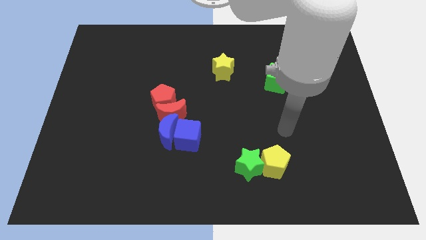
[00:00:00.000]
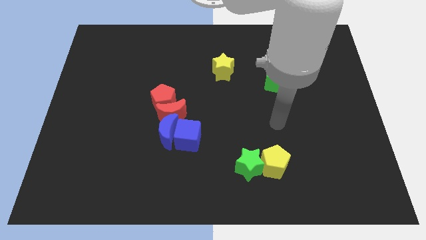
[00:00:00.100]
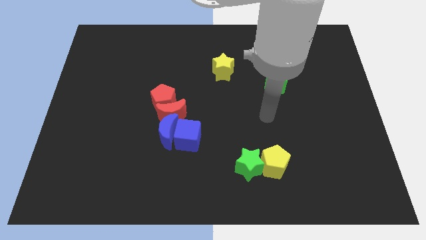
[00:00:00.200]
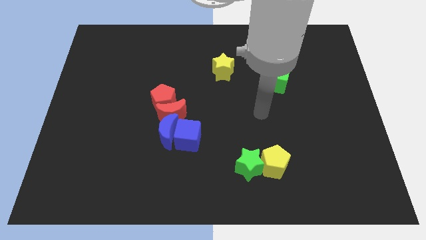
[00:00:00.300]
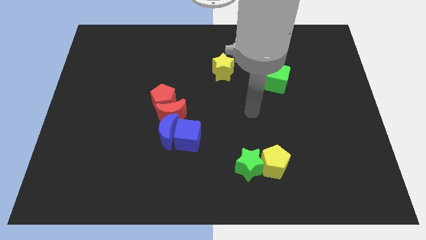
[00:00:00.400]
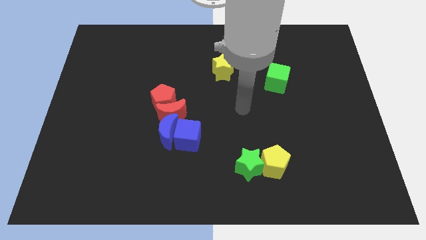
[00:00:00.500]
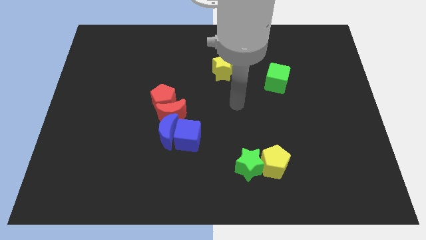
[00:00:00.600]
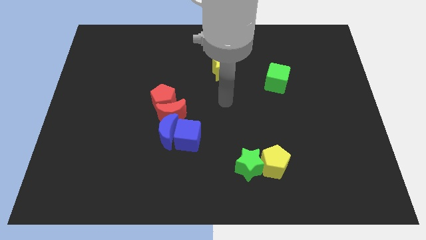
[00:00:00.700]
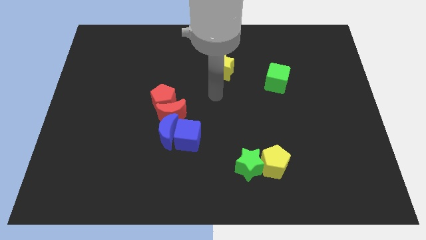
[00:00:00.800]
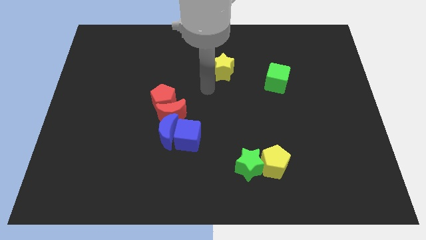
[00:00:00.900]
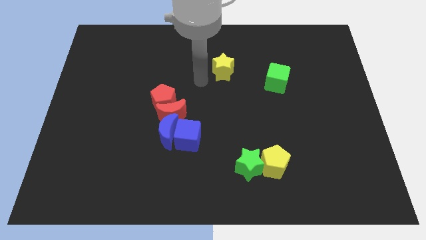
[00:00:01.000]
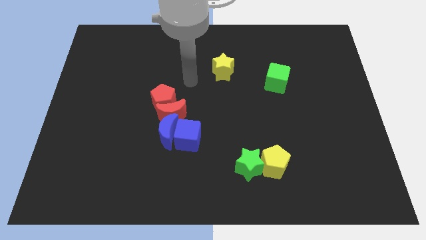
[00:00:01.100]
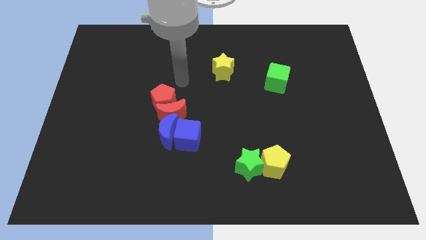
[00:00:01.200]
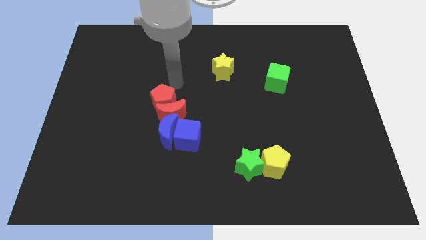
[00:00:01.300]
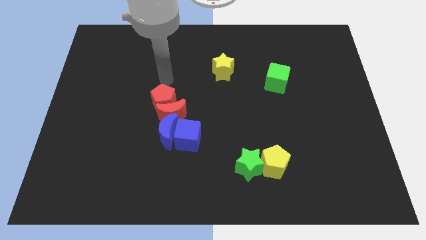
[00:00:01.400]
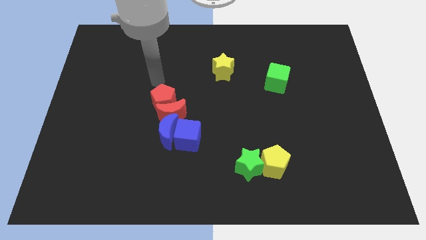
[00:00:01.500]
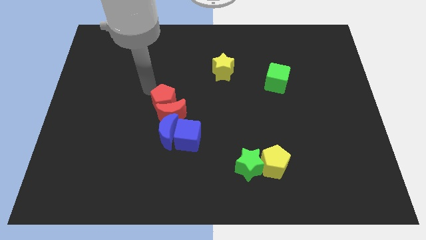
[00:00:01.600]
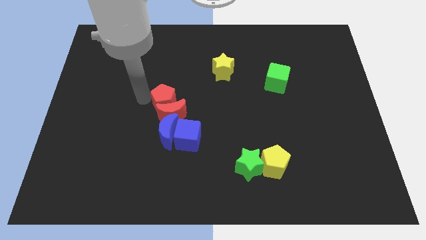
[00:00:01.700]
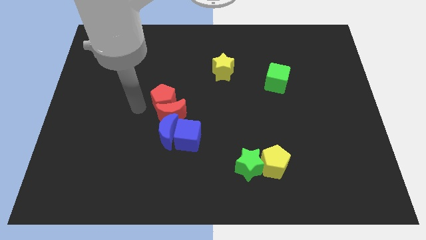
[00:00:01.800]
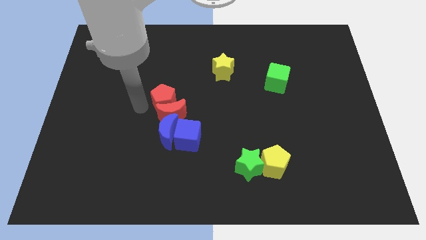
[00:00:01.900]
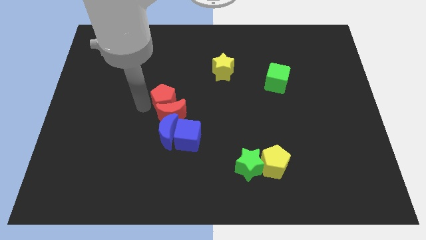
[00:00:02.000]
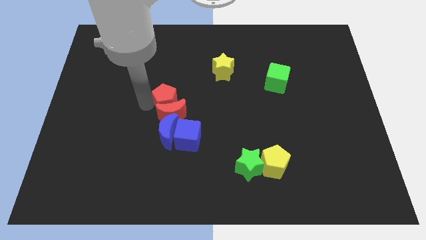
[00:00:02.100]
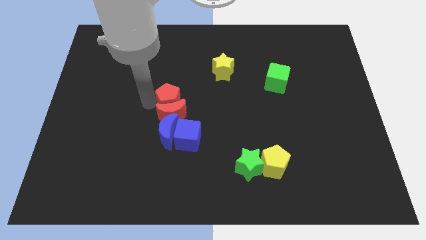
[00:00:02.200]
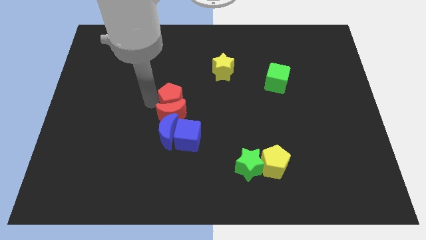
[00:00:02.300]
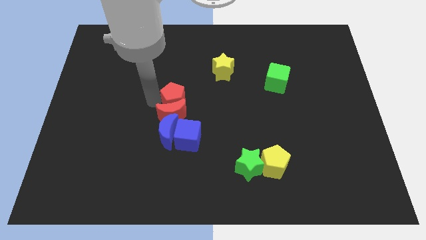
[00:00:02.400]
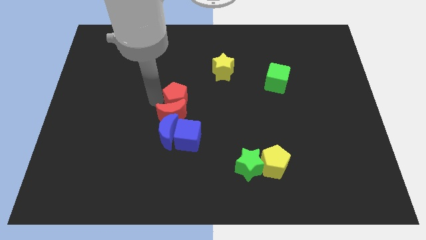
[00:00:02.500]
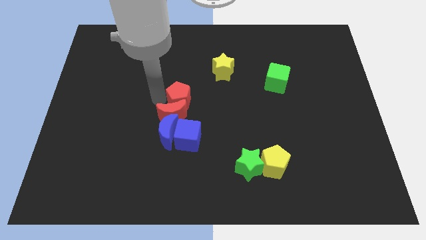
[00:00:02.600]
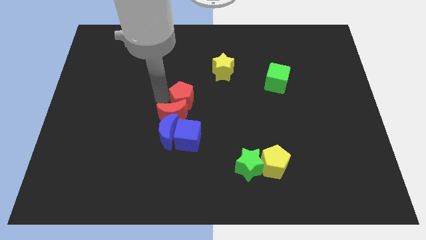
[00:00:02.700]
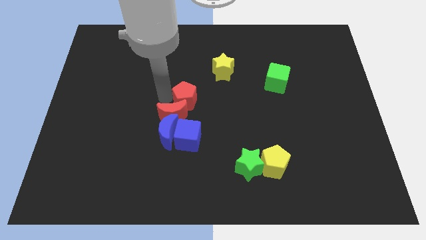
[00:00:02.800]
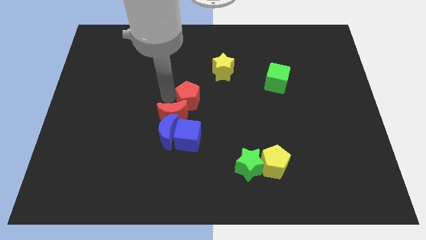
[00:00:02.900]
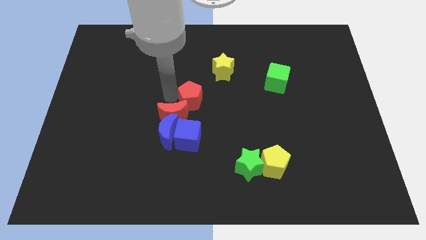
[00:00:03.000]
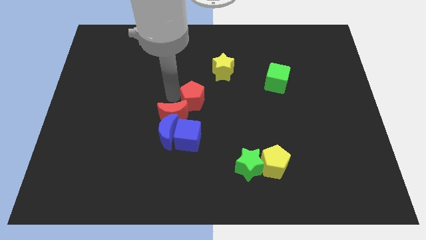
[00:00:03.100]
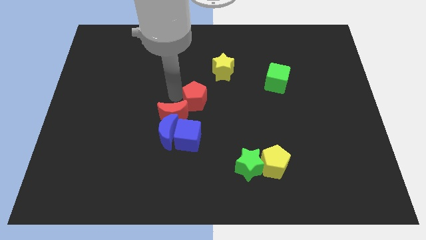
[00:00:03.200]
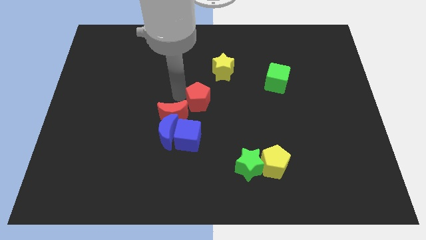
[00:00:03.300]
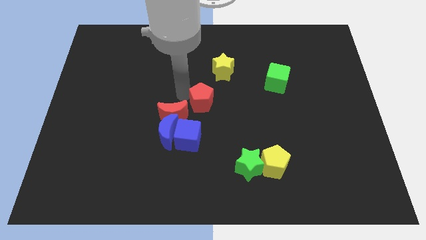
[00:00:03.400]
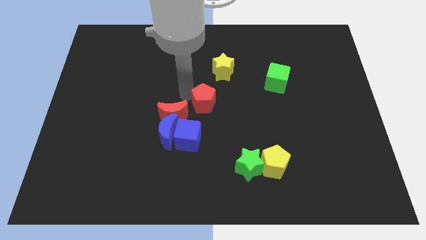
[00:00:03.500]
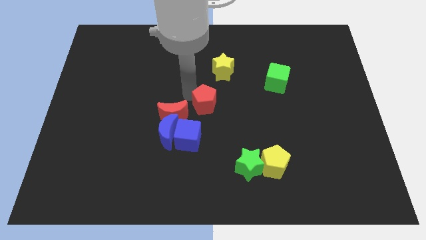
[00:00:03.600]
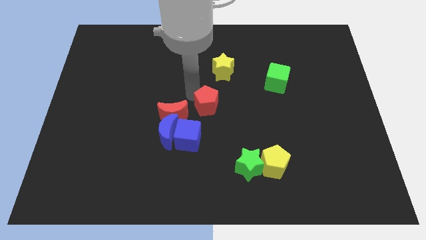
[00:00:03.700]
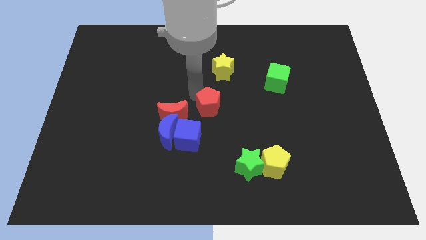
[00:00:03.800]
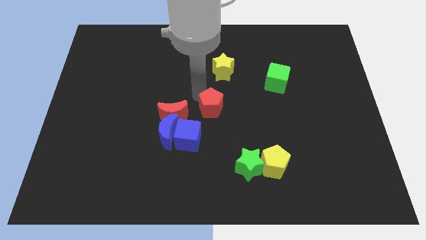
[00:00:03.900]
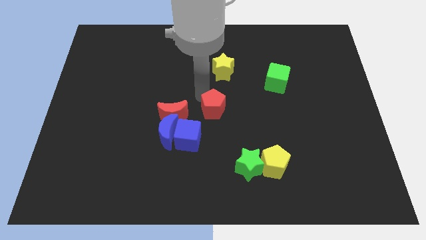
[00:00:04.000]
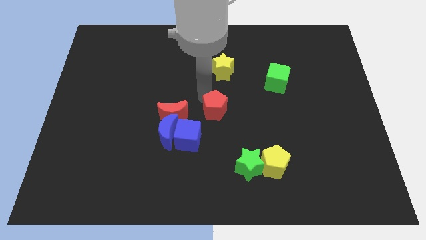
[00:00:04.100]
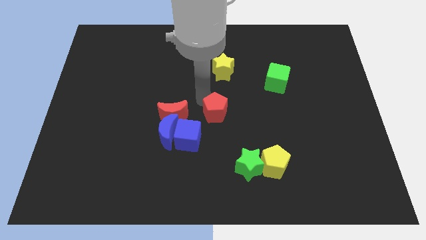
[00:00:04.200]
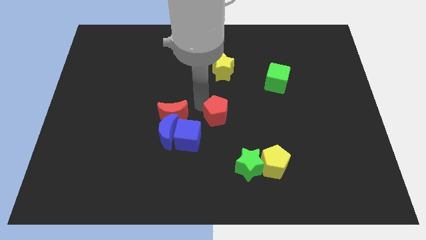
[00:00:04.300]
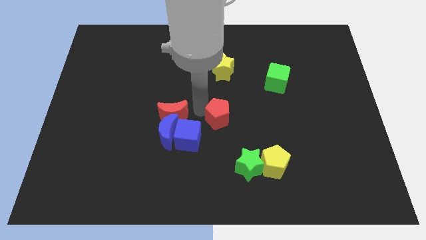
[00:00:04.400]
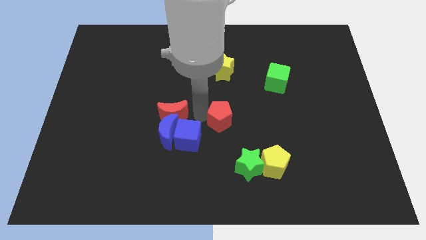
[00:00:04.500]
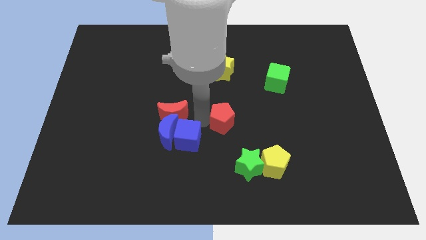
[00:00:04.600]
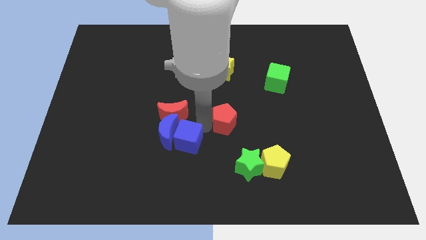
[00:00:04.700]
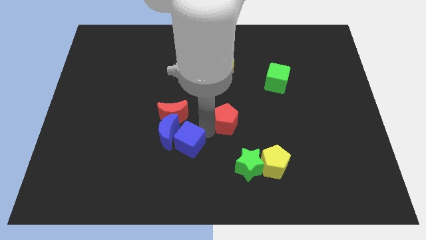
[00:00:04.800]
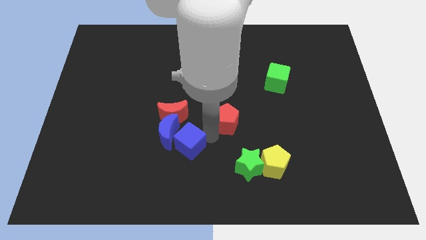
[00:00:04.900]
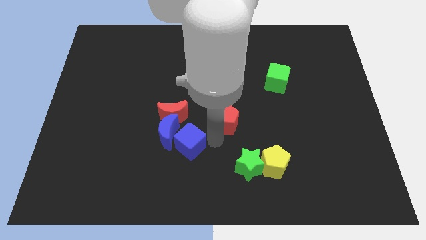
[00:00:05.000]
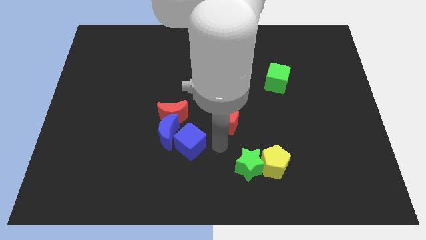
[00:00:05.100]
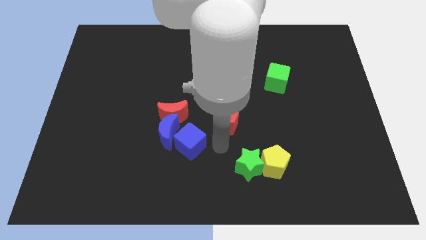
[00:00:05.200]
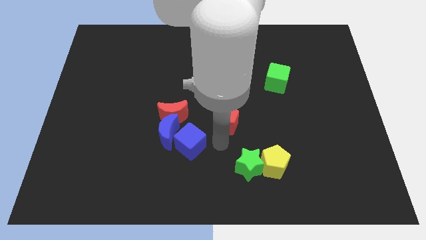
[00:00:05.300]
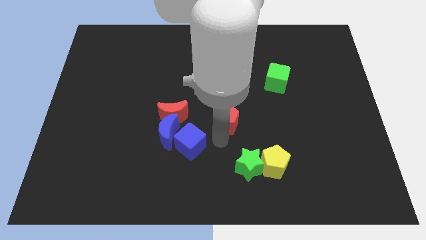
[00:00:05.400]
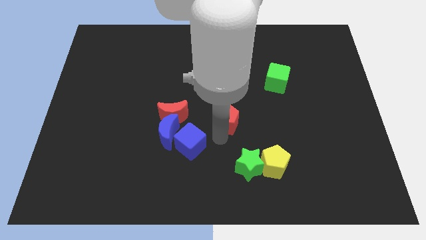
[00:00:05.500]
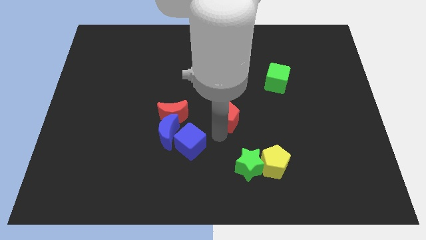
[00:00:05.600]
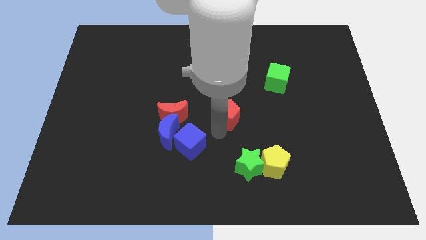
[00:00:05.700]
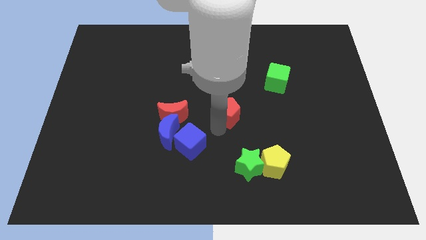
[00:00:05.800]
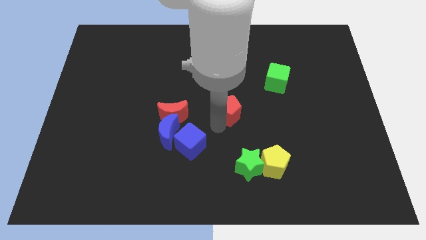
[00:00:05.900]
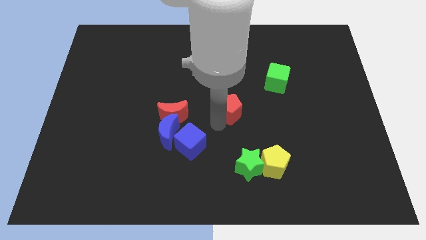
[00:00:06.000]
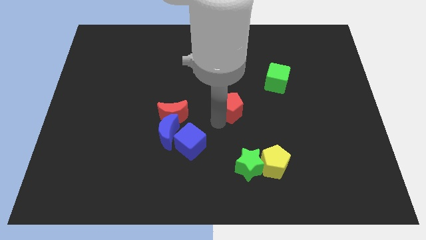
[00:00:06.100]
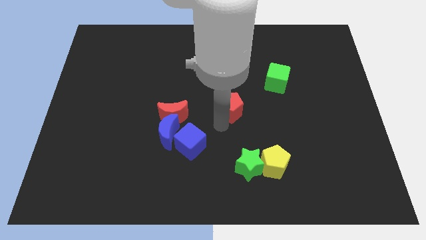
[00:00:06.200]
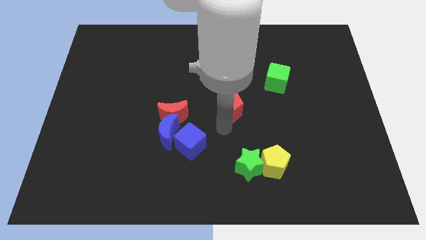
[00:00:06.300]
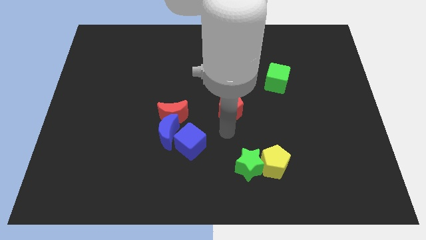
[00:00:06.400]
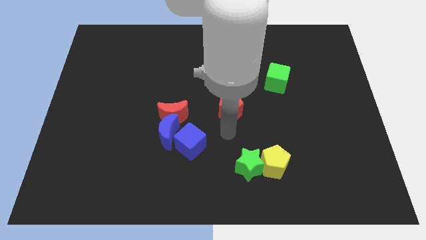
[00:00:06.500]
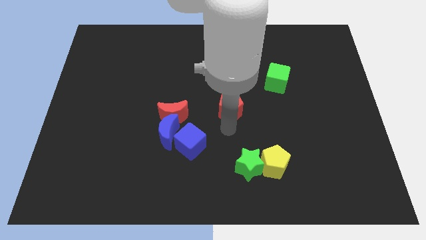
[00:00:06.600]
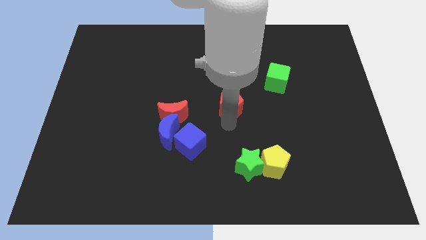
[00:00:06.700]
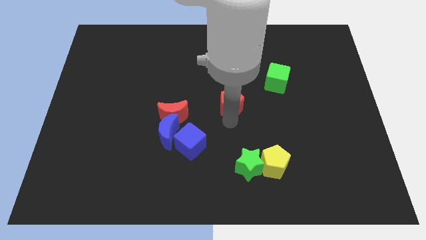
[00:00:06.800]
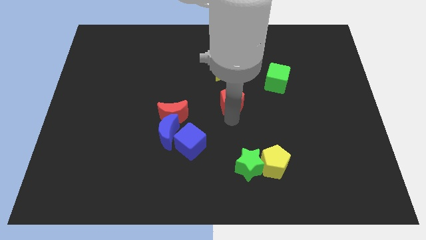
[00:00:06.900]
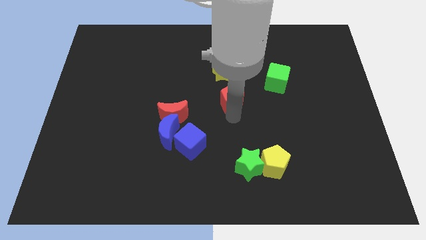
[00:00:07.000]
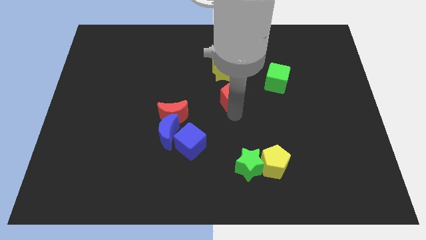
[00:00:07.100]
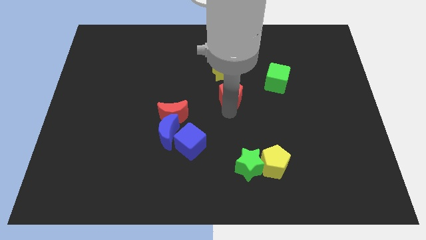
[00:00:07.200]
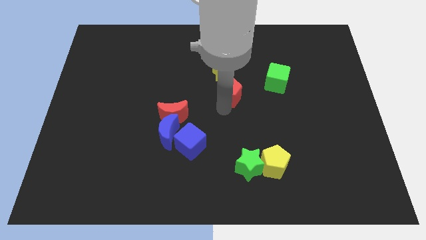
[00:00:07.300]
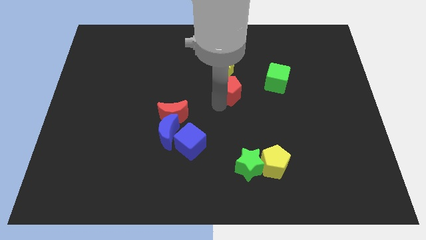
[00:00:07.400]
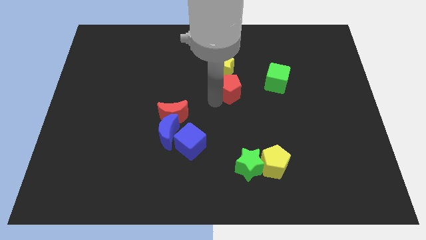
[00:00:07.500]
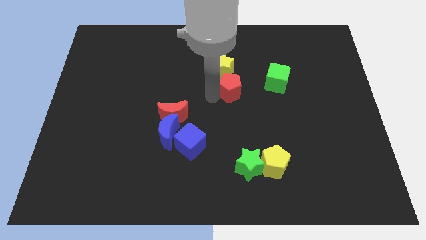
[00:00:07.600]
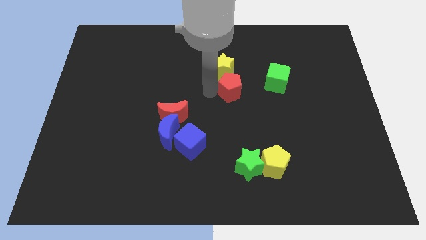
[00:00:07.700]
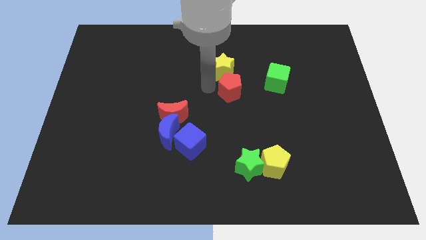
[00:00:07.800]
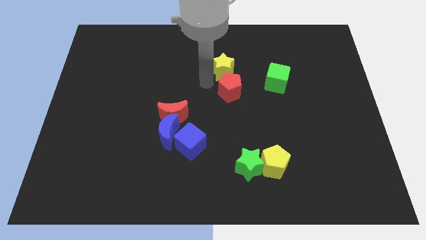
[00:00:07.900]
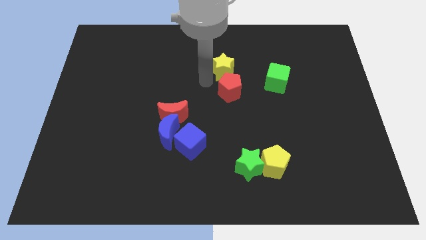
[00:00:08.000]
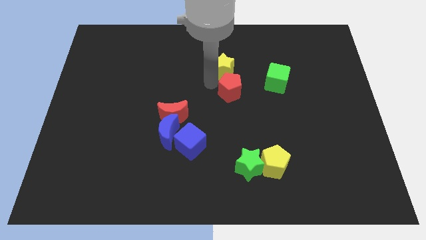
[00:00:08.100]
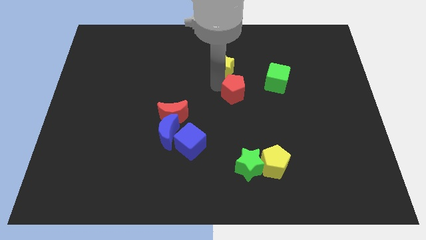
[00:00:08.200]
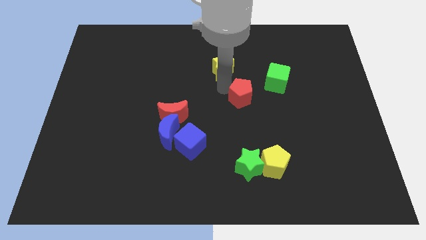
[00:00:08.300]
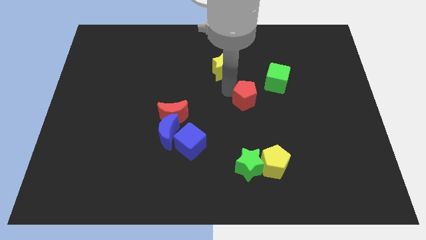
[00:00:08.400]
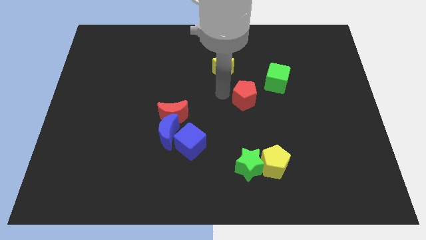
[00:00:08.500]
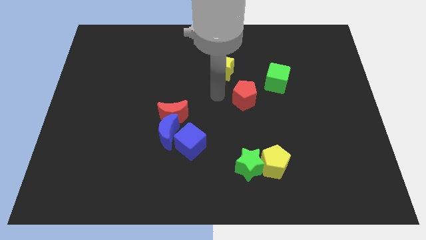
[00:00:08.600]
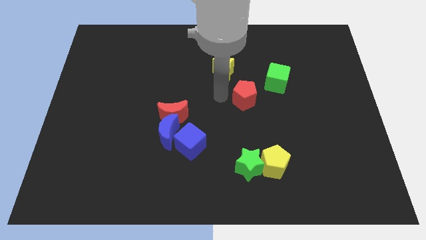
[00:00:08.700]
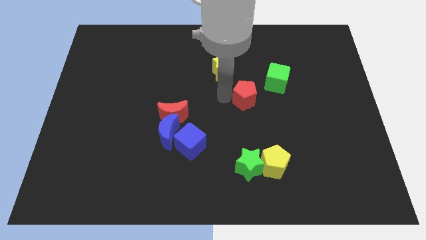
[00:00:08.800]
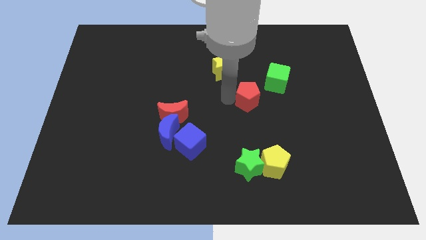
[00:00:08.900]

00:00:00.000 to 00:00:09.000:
push the red pentagon to the right
